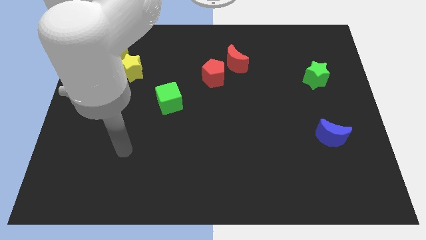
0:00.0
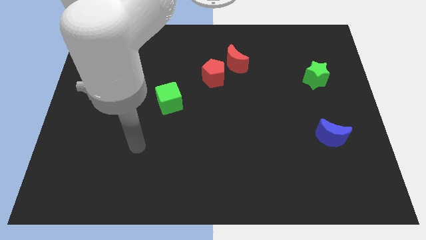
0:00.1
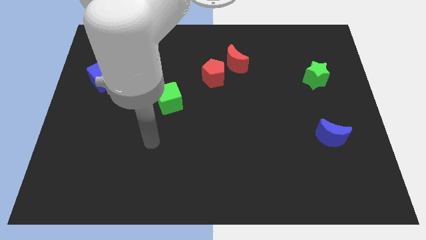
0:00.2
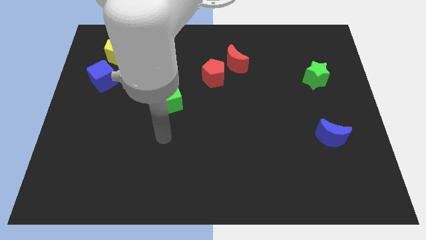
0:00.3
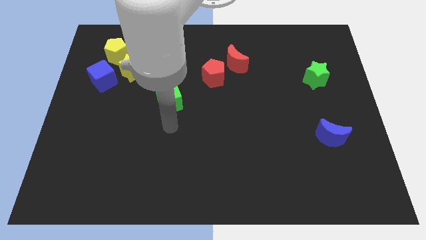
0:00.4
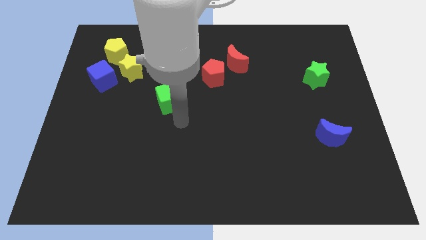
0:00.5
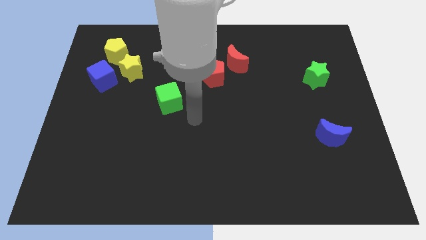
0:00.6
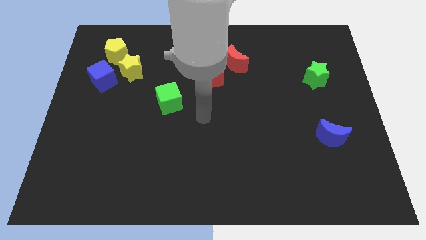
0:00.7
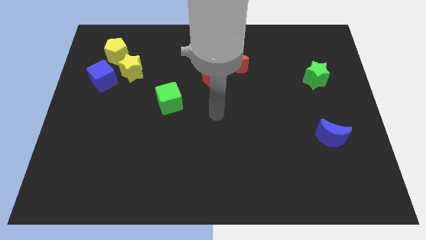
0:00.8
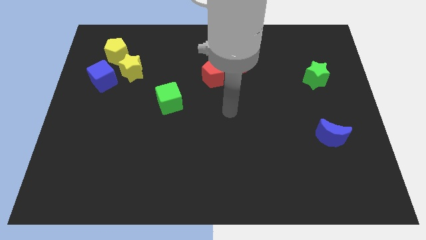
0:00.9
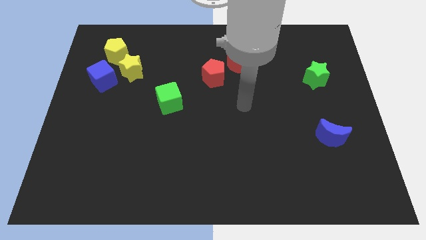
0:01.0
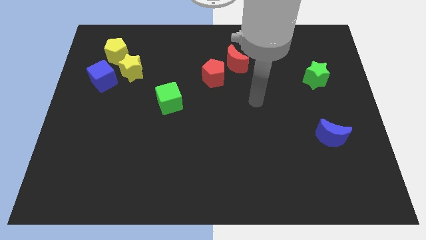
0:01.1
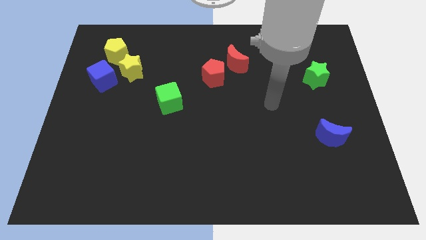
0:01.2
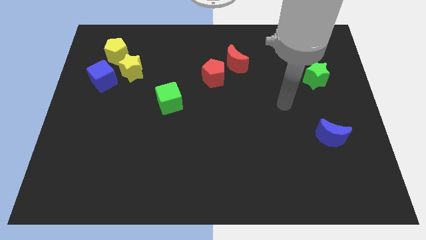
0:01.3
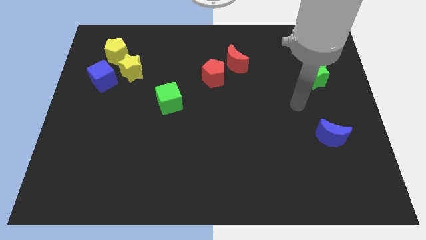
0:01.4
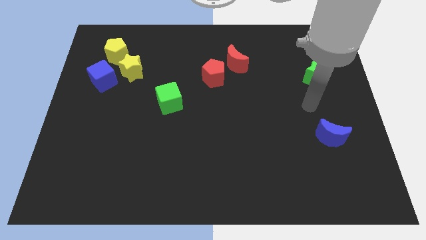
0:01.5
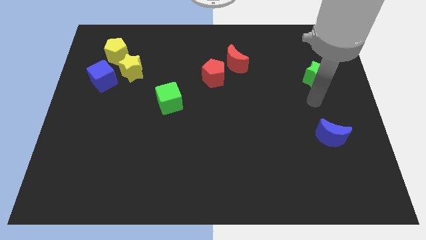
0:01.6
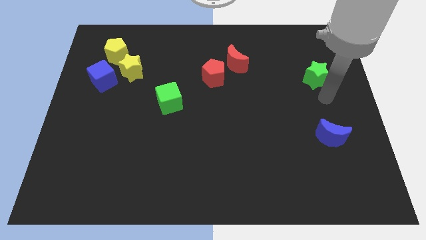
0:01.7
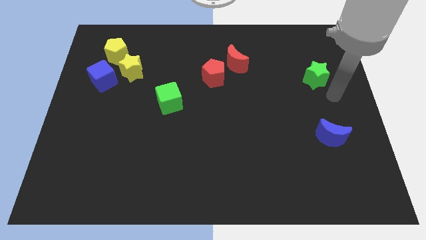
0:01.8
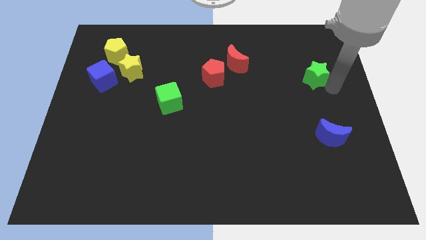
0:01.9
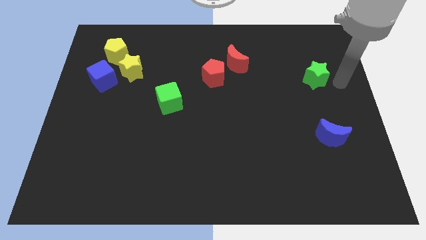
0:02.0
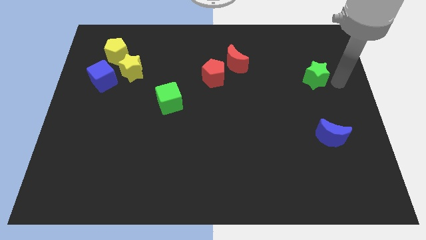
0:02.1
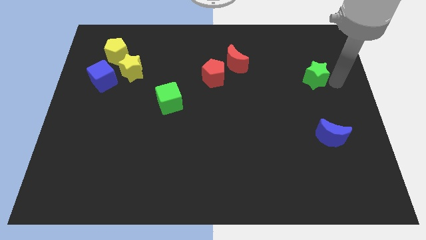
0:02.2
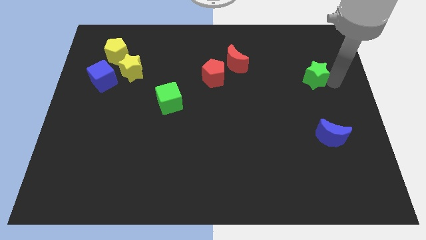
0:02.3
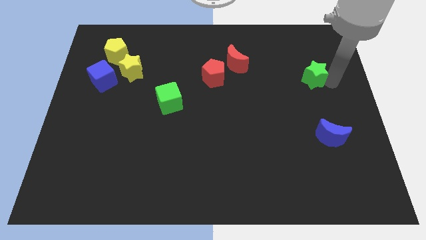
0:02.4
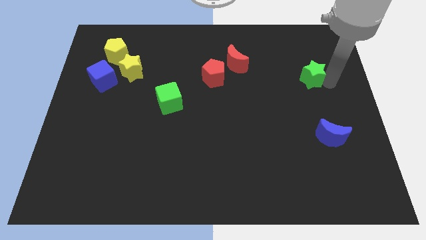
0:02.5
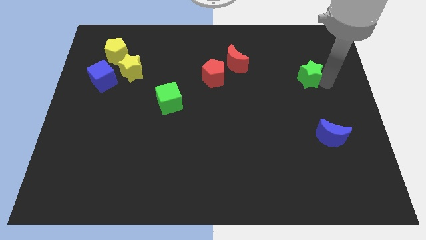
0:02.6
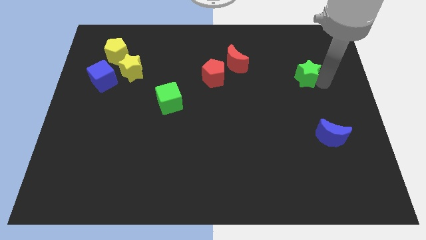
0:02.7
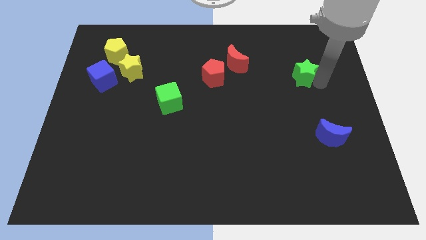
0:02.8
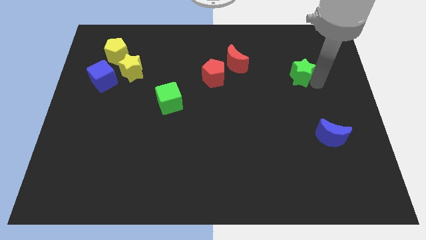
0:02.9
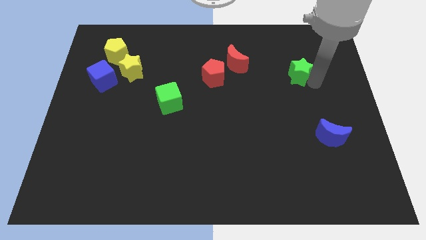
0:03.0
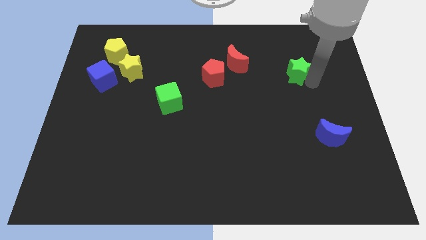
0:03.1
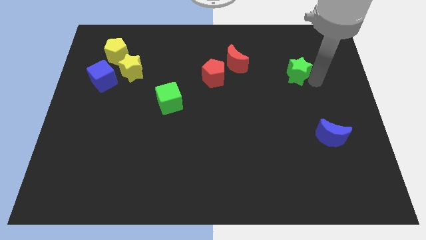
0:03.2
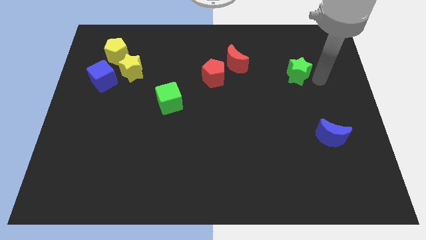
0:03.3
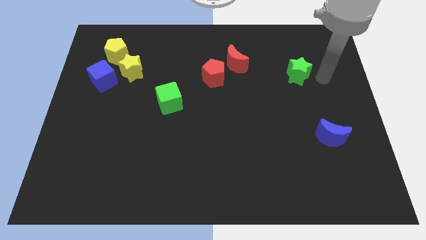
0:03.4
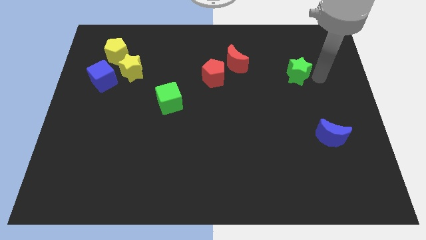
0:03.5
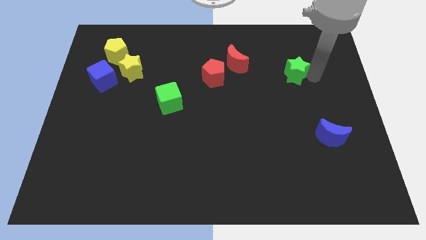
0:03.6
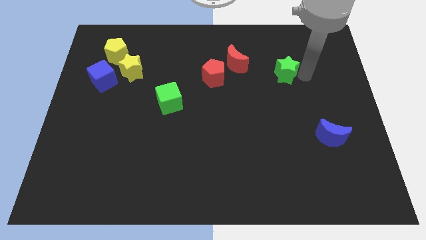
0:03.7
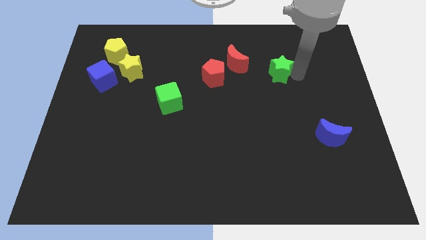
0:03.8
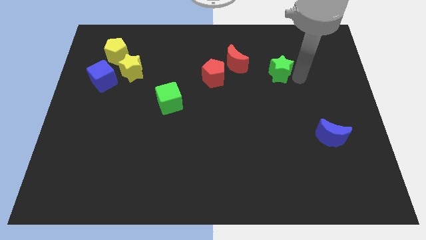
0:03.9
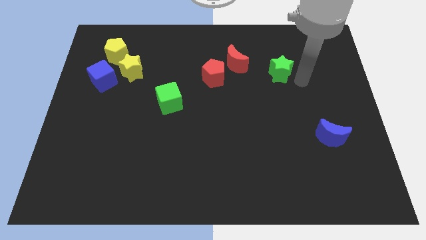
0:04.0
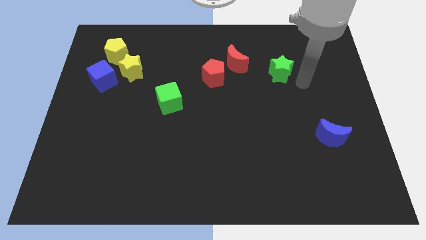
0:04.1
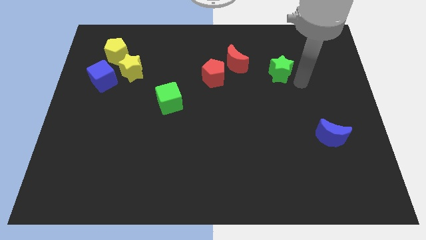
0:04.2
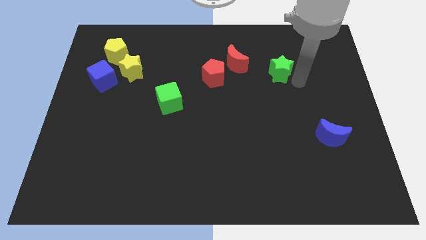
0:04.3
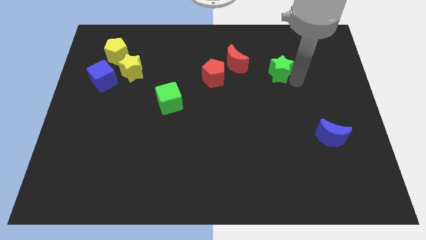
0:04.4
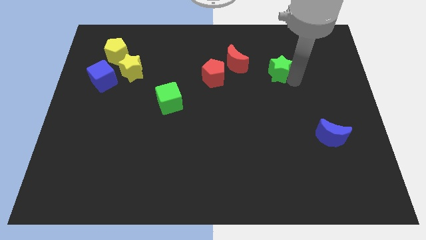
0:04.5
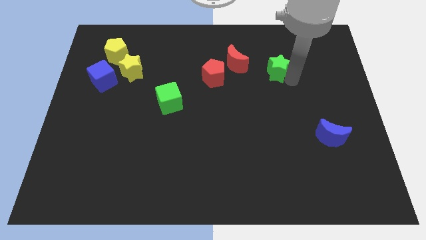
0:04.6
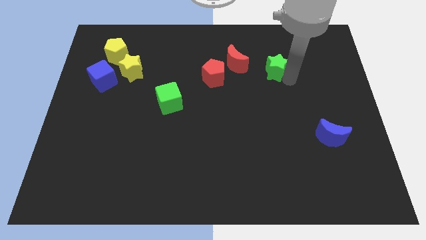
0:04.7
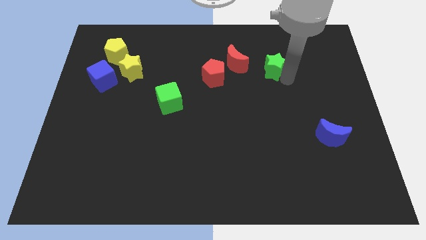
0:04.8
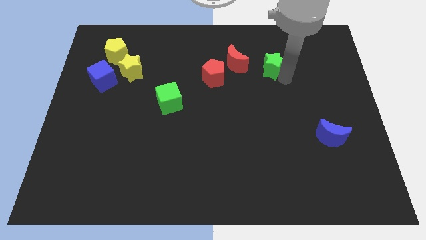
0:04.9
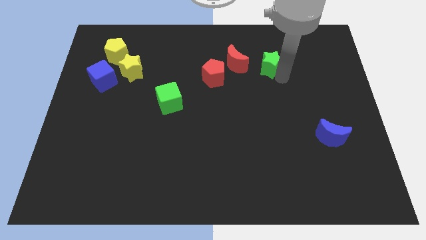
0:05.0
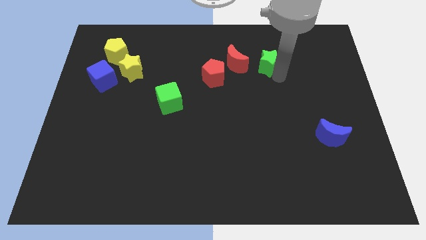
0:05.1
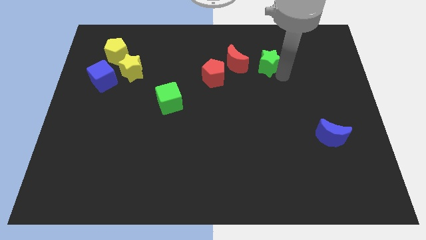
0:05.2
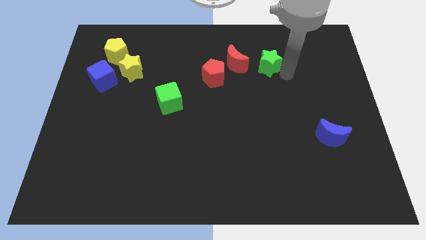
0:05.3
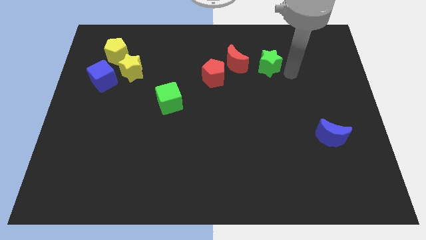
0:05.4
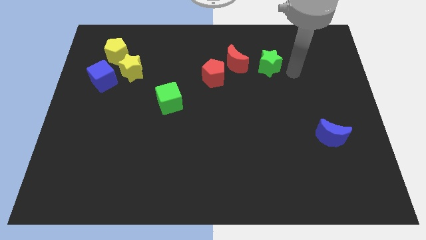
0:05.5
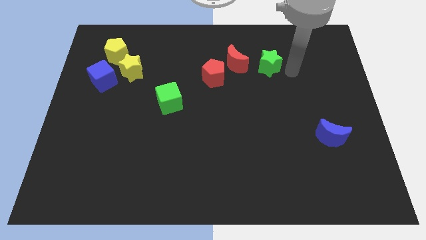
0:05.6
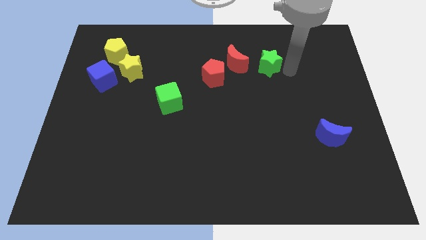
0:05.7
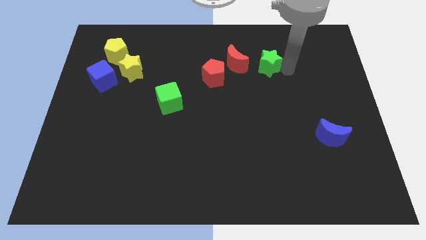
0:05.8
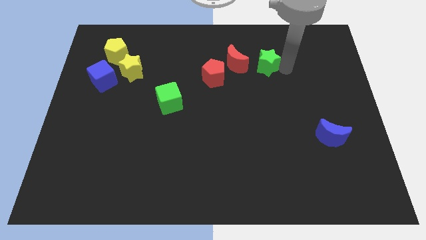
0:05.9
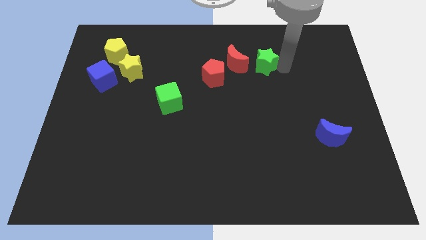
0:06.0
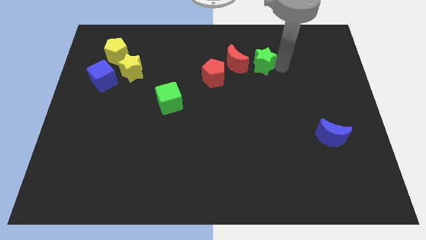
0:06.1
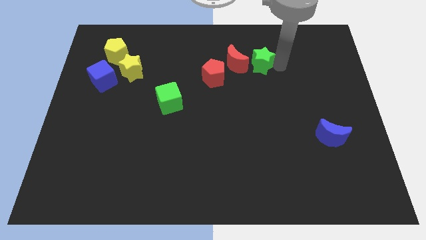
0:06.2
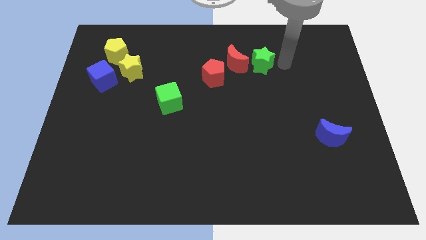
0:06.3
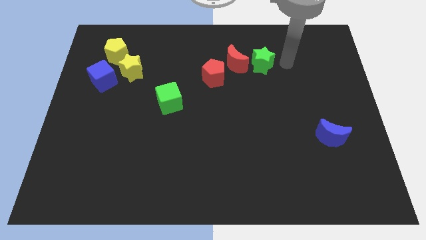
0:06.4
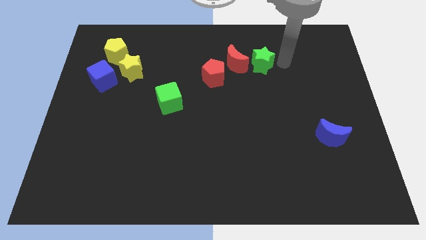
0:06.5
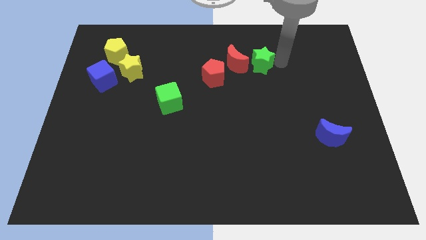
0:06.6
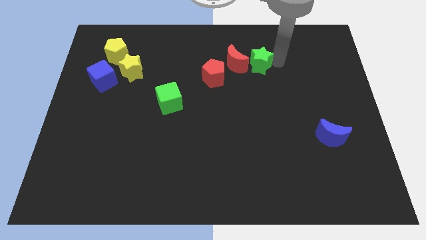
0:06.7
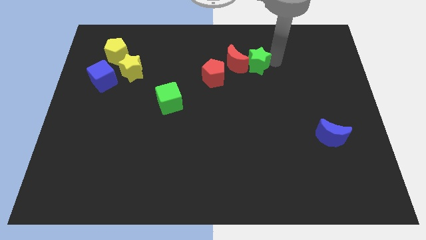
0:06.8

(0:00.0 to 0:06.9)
put the green star next to the red moon

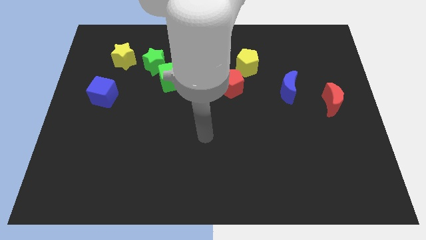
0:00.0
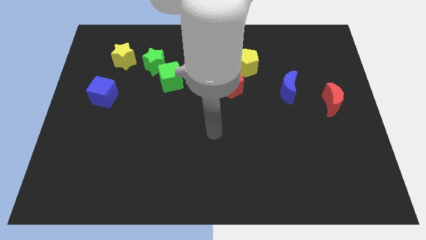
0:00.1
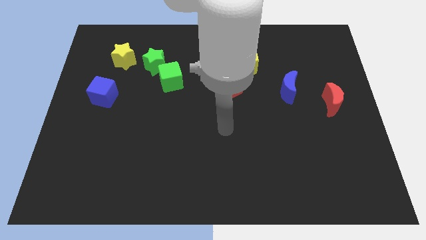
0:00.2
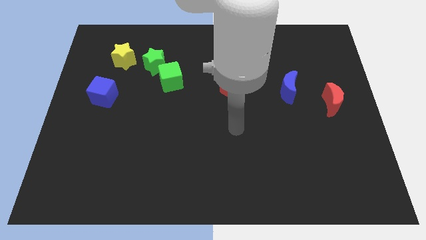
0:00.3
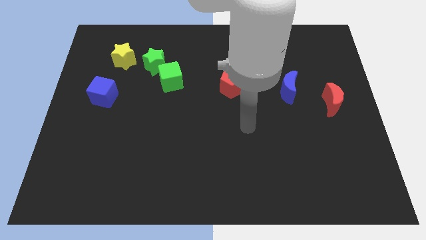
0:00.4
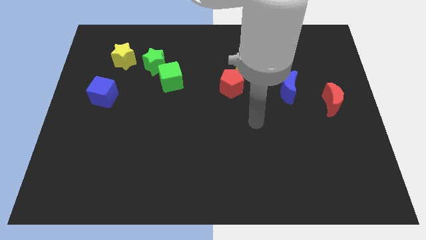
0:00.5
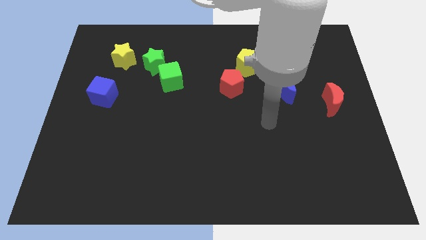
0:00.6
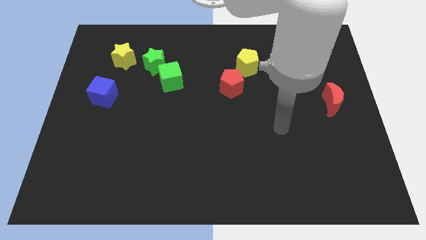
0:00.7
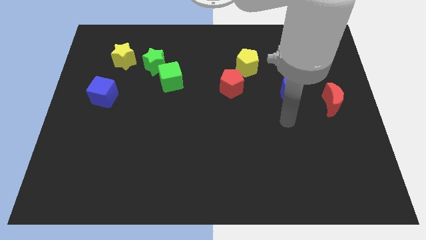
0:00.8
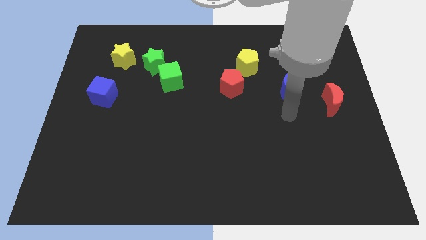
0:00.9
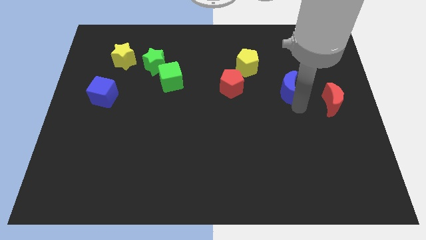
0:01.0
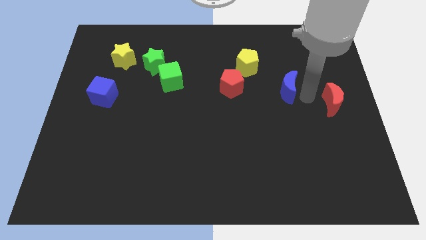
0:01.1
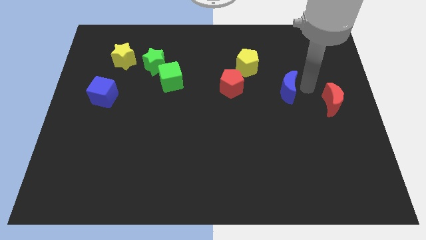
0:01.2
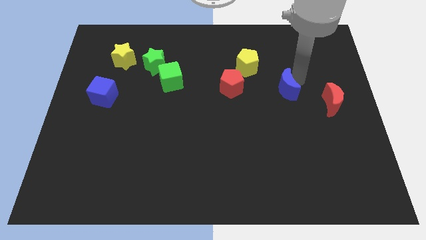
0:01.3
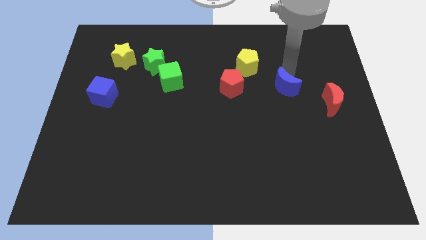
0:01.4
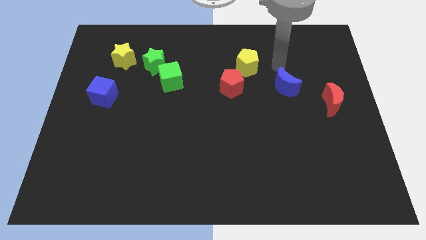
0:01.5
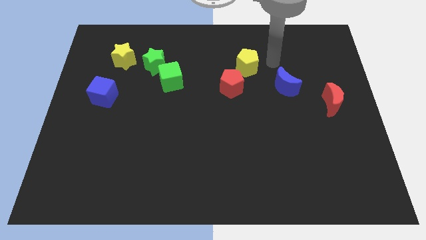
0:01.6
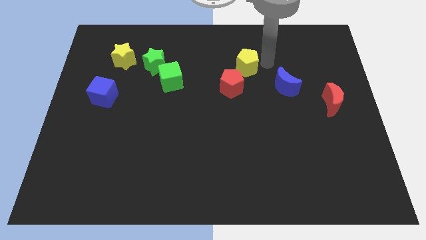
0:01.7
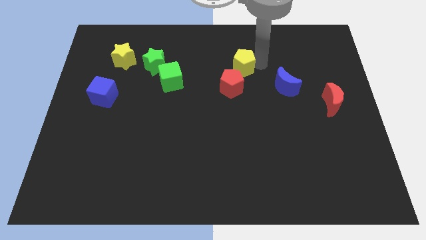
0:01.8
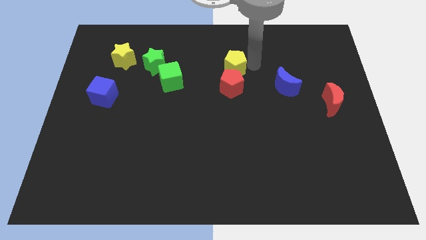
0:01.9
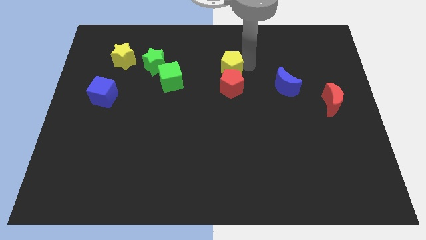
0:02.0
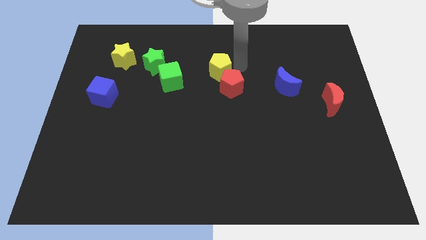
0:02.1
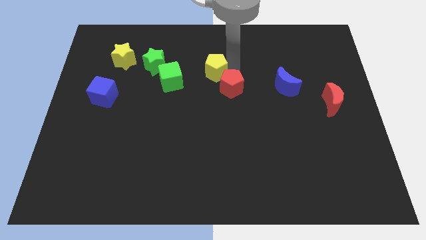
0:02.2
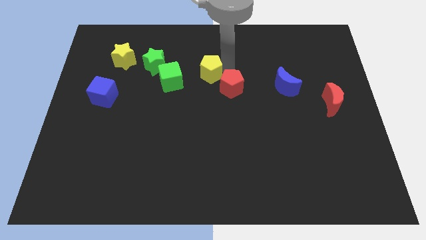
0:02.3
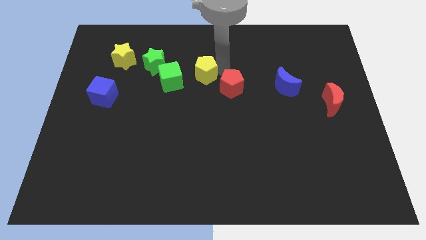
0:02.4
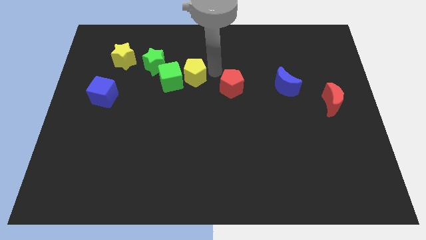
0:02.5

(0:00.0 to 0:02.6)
slide the yellow pentagon towards the green cube
